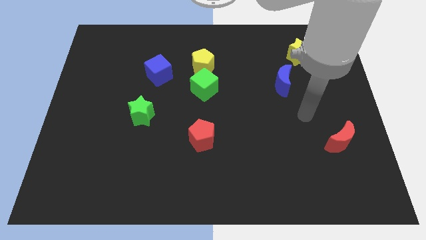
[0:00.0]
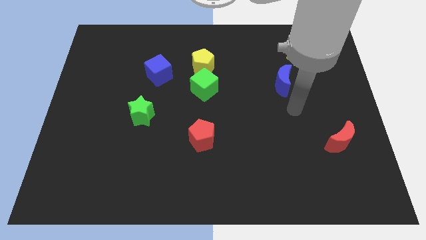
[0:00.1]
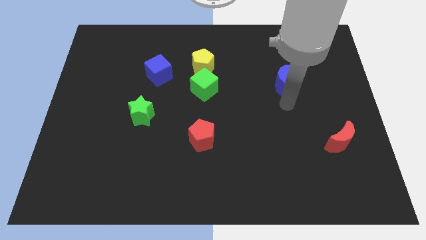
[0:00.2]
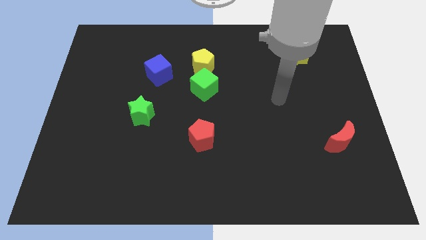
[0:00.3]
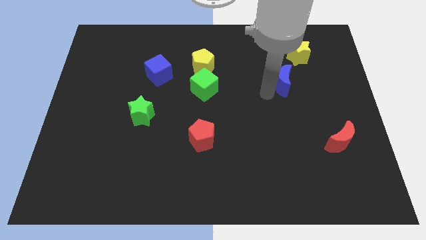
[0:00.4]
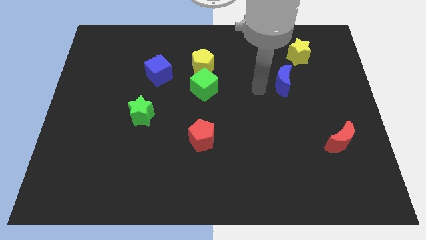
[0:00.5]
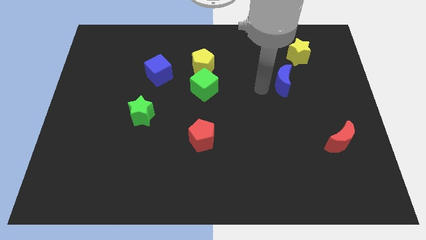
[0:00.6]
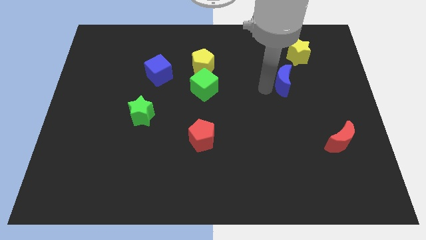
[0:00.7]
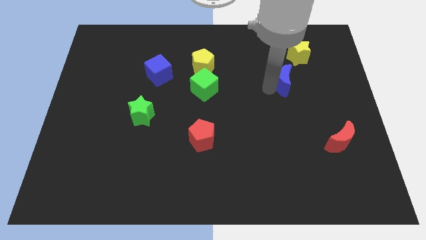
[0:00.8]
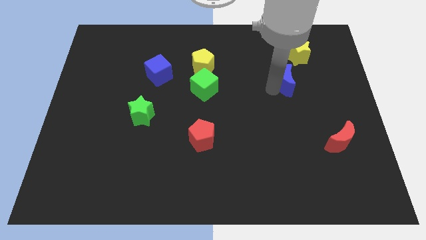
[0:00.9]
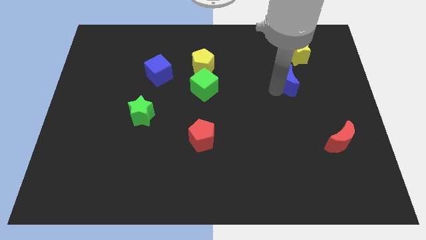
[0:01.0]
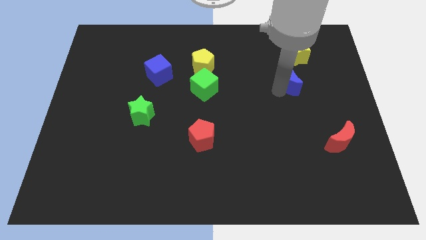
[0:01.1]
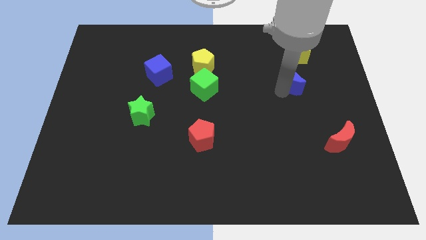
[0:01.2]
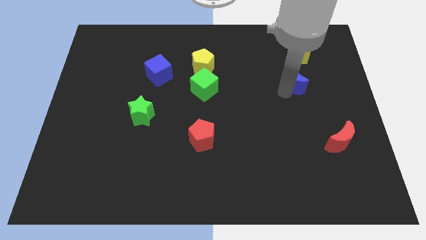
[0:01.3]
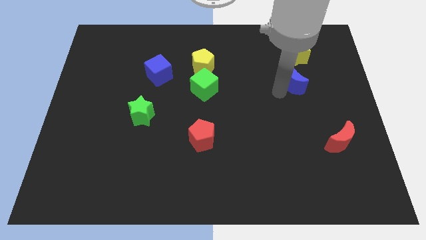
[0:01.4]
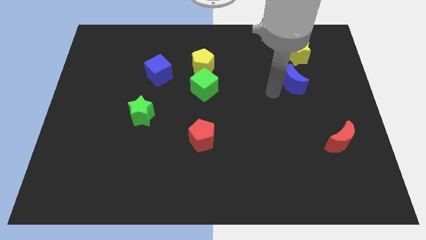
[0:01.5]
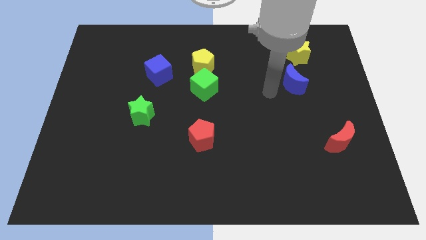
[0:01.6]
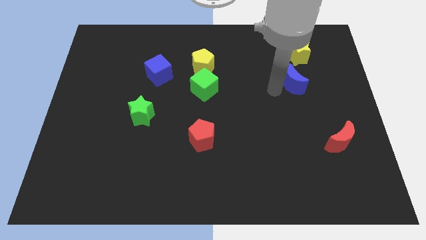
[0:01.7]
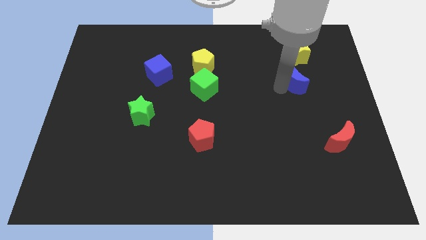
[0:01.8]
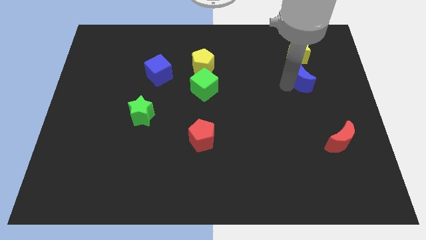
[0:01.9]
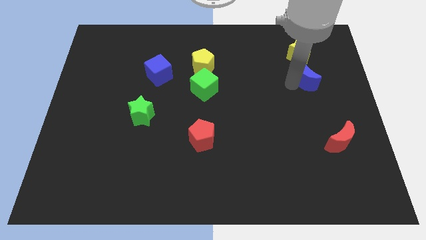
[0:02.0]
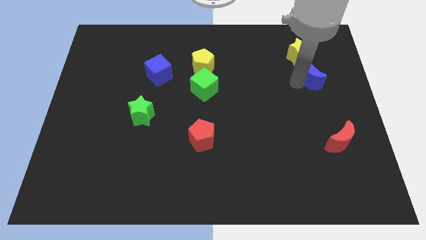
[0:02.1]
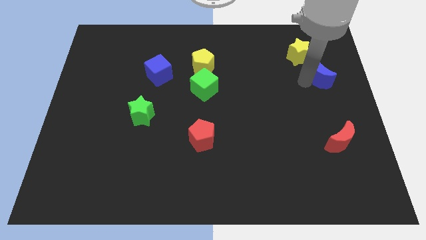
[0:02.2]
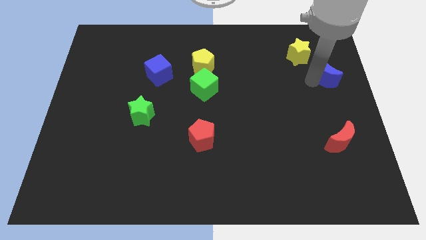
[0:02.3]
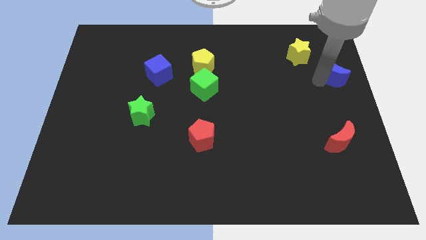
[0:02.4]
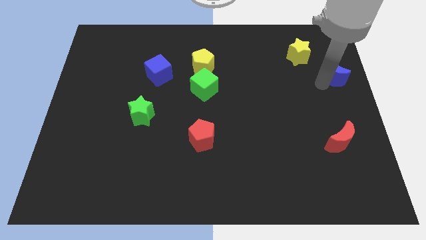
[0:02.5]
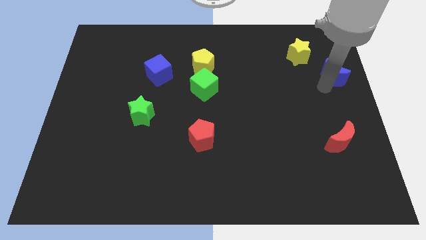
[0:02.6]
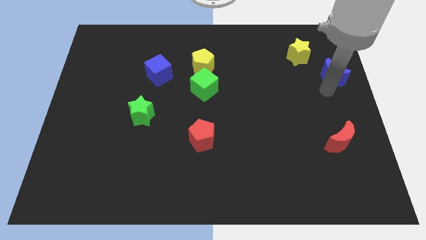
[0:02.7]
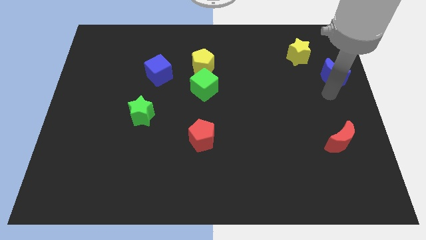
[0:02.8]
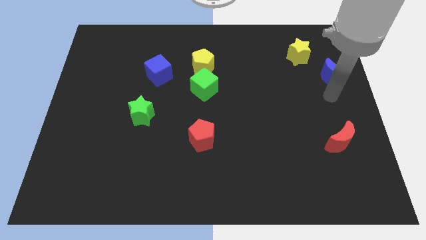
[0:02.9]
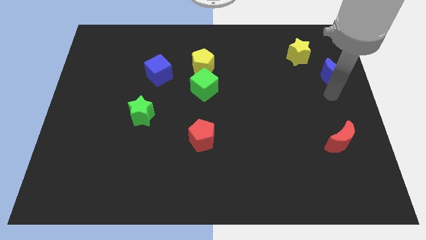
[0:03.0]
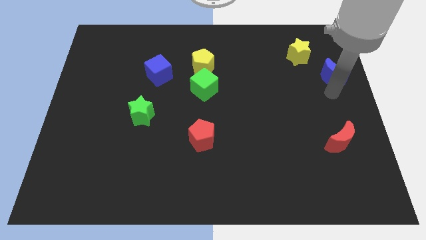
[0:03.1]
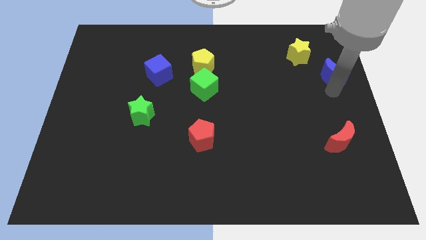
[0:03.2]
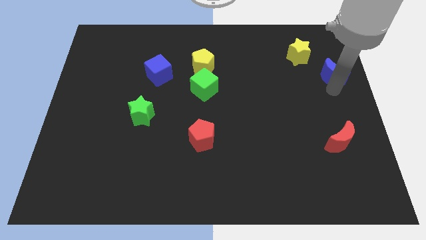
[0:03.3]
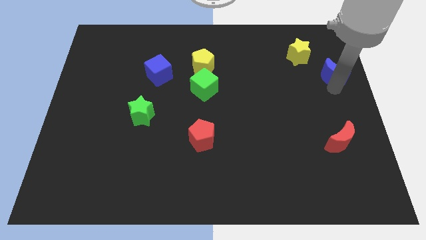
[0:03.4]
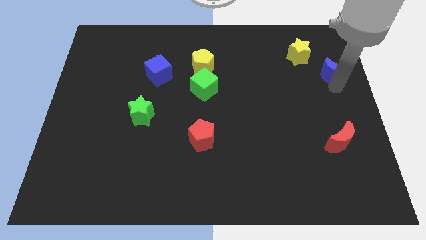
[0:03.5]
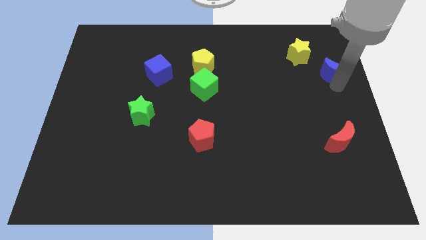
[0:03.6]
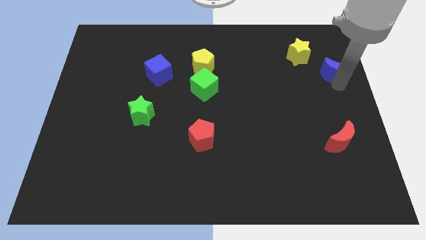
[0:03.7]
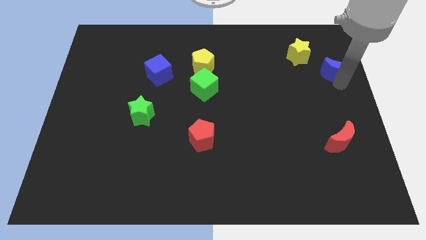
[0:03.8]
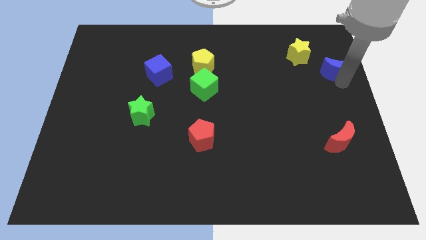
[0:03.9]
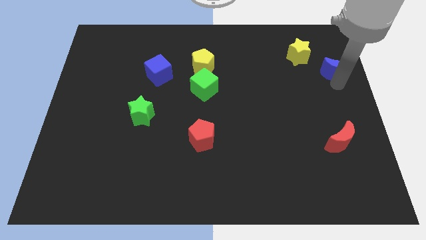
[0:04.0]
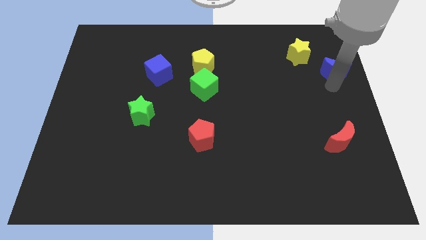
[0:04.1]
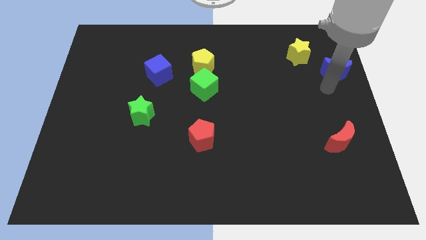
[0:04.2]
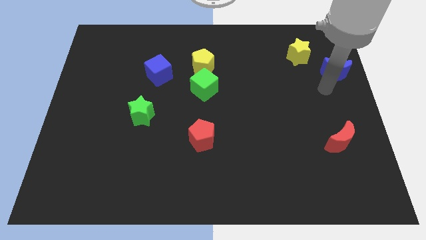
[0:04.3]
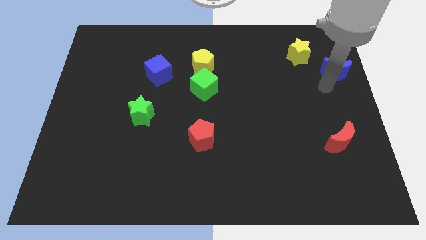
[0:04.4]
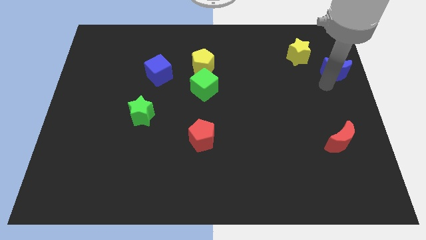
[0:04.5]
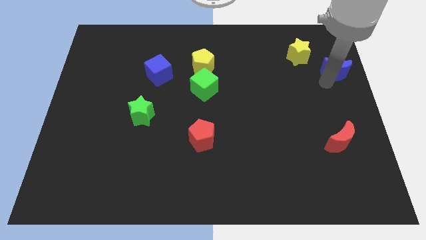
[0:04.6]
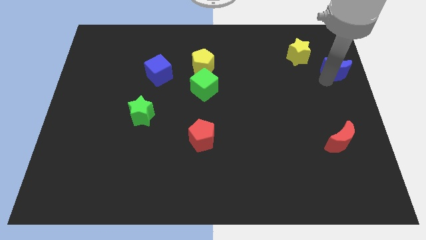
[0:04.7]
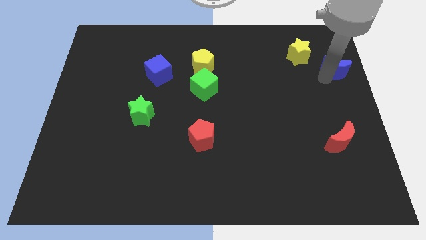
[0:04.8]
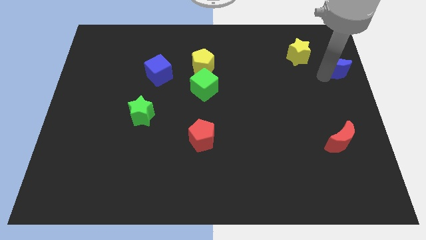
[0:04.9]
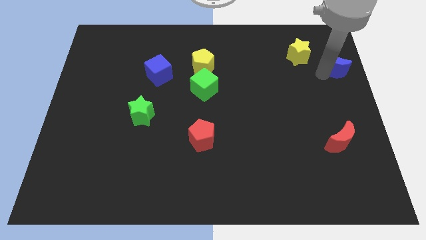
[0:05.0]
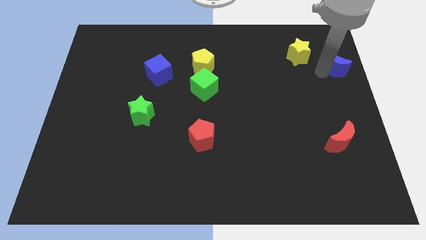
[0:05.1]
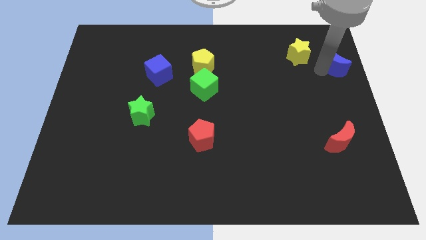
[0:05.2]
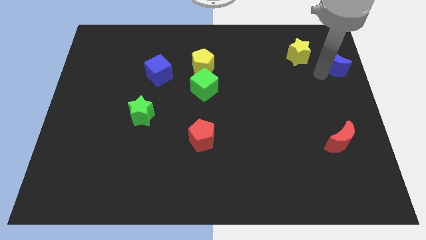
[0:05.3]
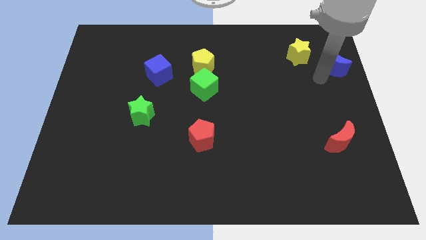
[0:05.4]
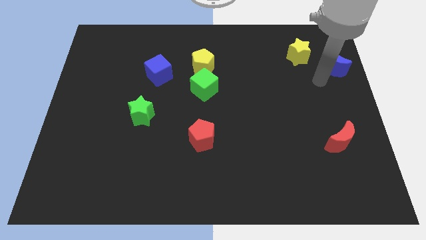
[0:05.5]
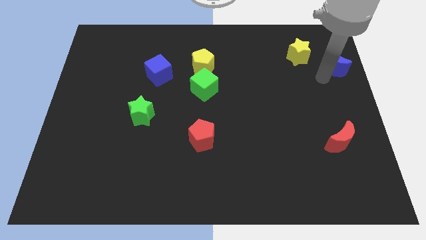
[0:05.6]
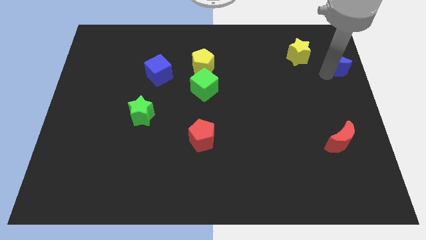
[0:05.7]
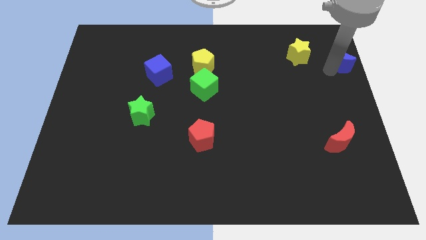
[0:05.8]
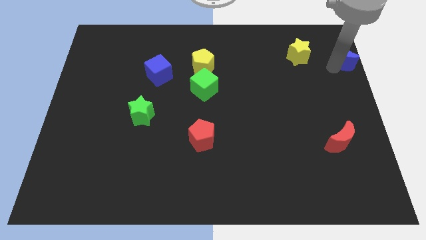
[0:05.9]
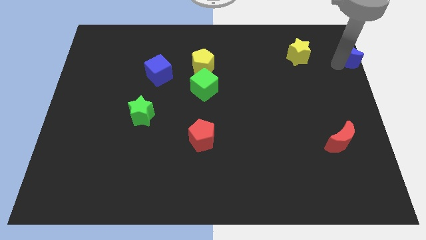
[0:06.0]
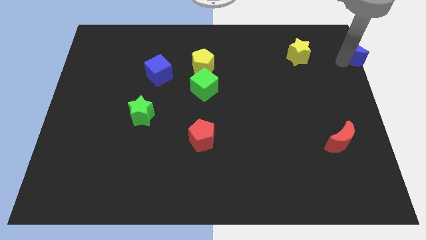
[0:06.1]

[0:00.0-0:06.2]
push the blue moon to the top right corner
